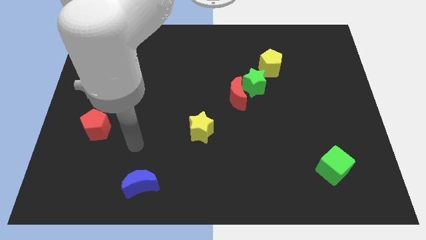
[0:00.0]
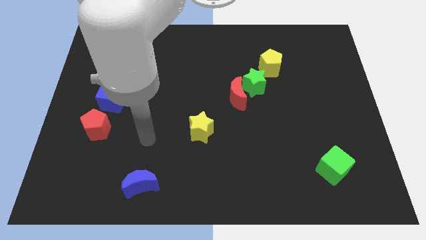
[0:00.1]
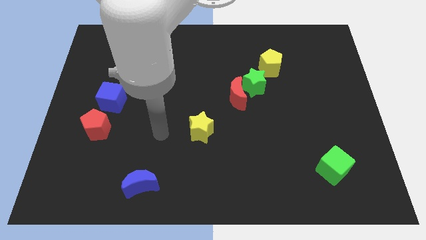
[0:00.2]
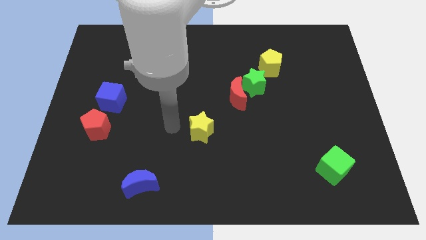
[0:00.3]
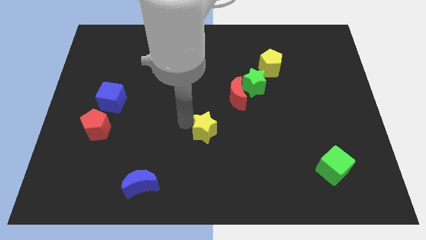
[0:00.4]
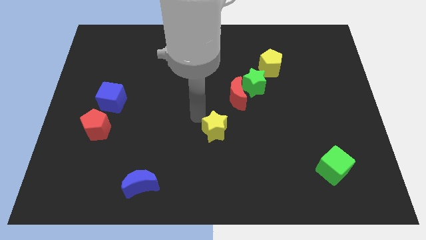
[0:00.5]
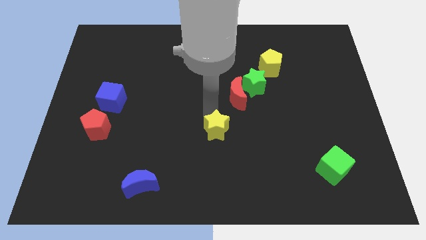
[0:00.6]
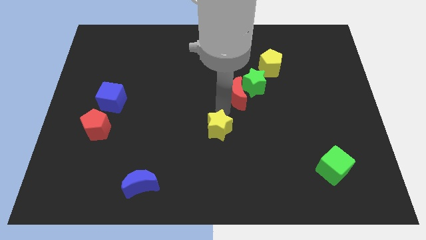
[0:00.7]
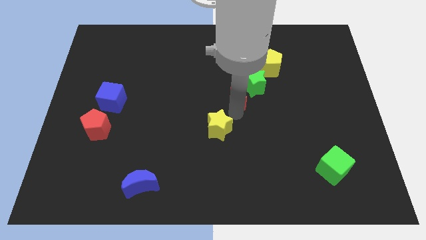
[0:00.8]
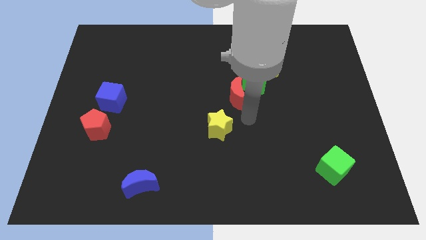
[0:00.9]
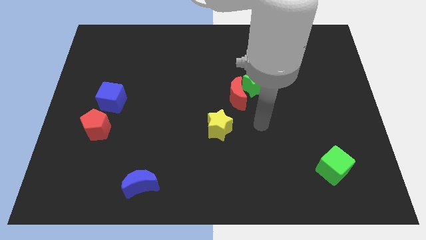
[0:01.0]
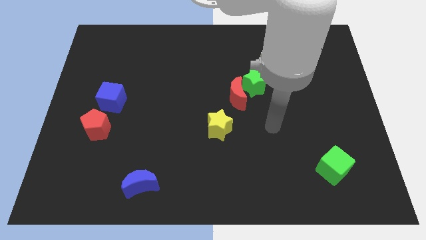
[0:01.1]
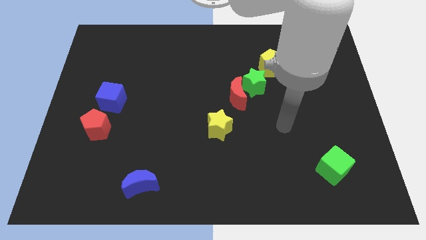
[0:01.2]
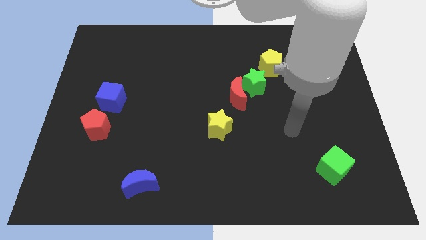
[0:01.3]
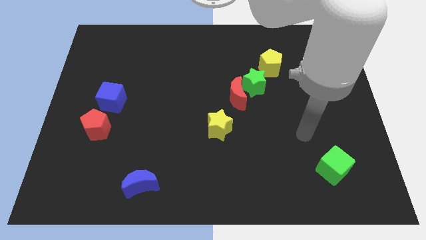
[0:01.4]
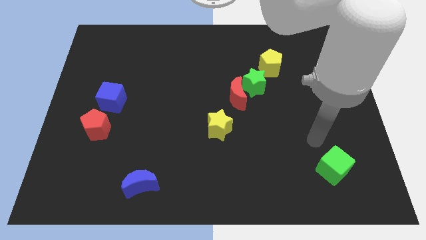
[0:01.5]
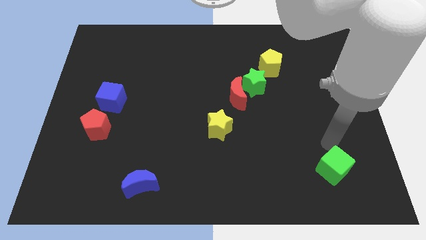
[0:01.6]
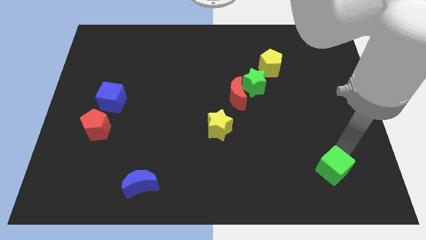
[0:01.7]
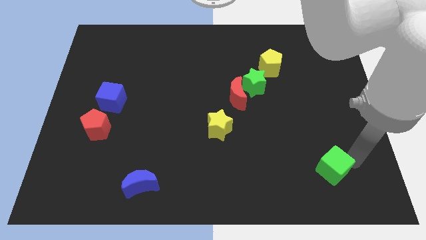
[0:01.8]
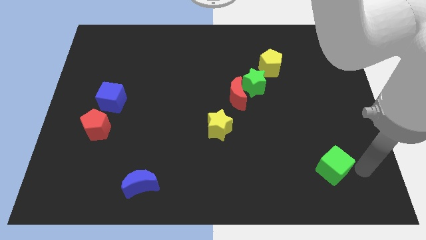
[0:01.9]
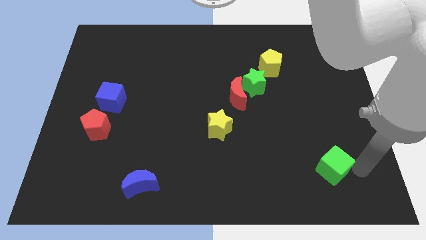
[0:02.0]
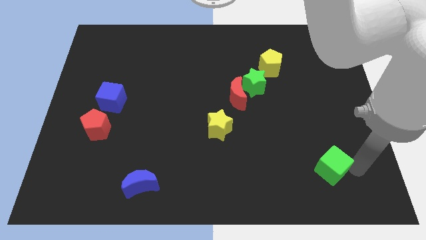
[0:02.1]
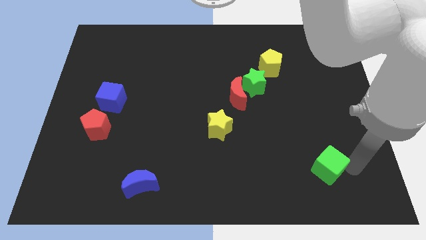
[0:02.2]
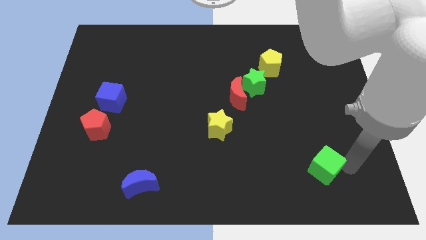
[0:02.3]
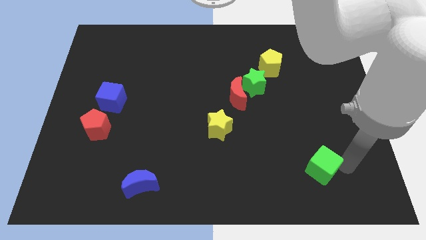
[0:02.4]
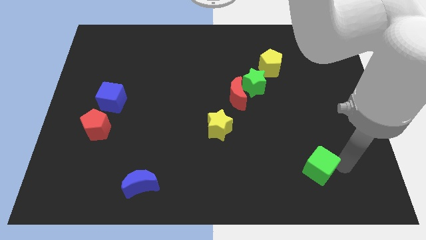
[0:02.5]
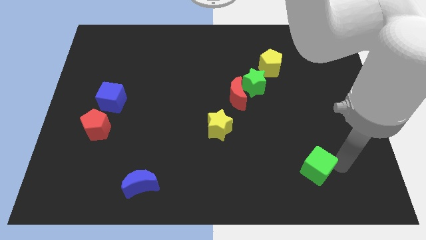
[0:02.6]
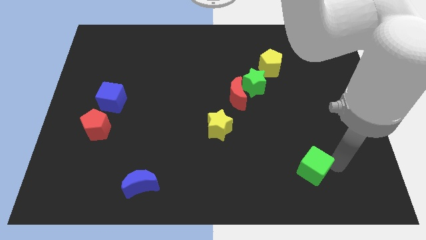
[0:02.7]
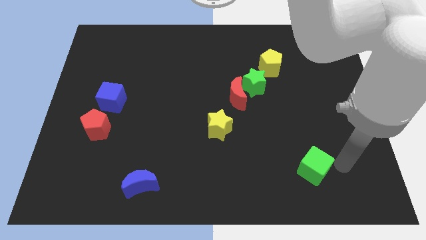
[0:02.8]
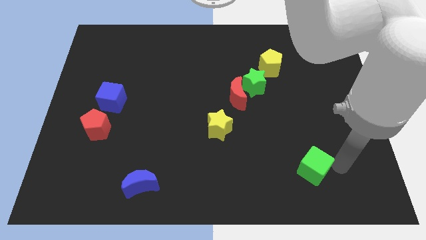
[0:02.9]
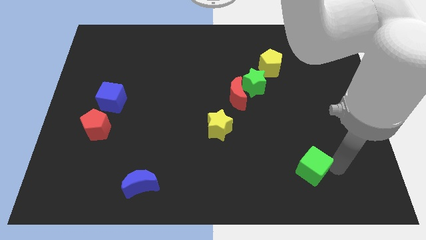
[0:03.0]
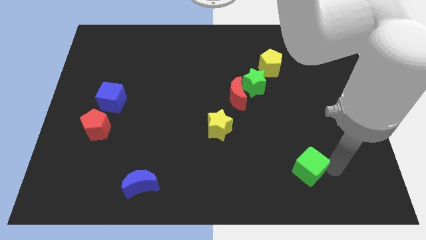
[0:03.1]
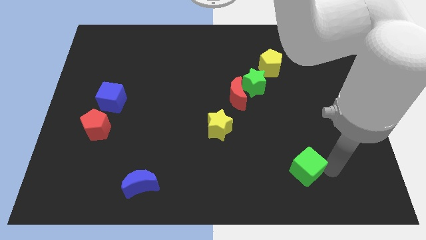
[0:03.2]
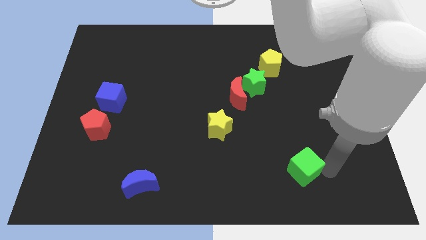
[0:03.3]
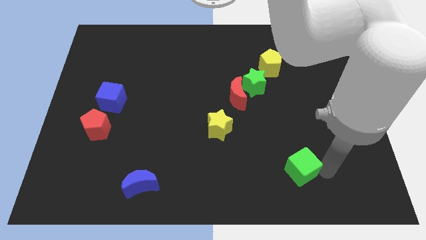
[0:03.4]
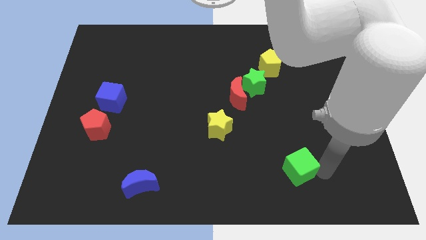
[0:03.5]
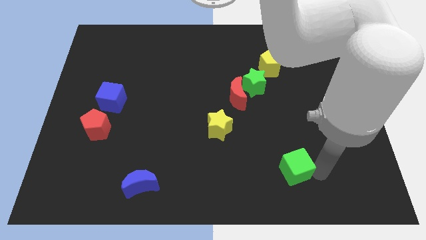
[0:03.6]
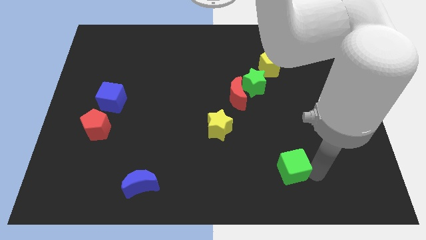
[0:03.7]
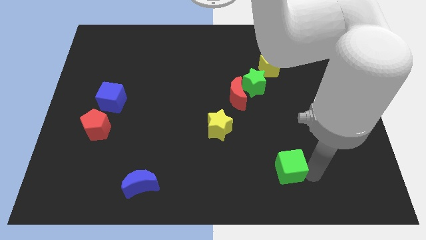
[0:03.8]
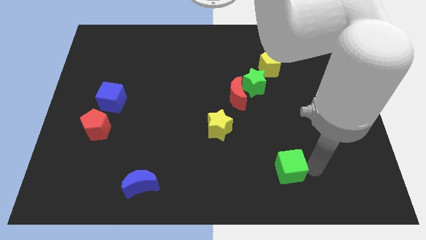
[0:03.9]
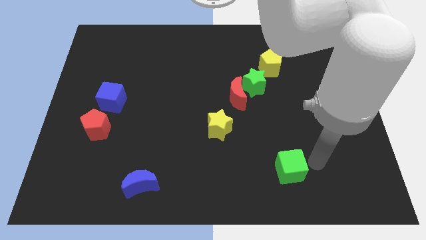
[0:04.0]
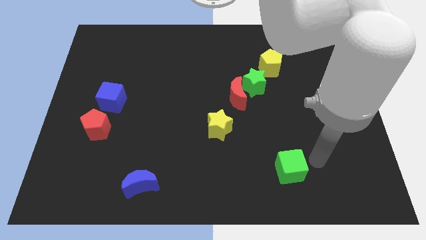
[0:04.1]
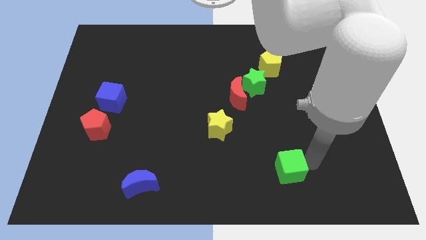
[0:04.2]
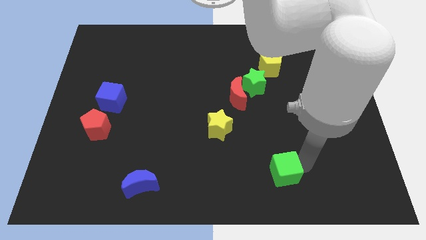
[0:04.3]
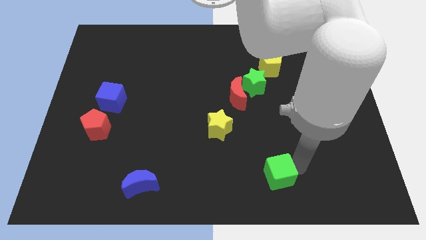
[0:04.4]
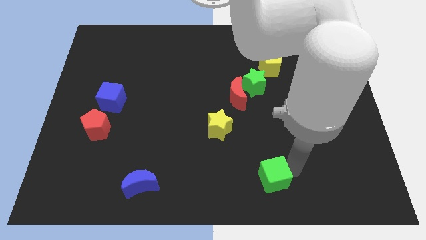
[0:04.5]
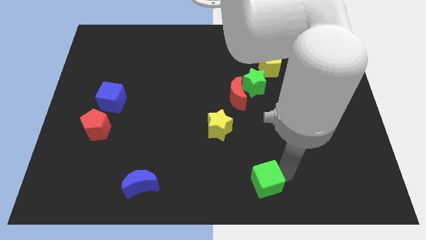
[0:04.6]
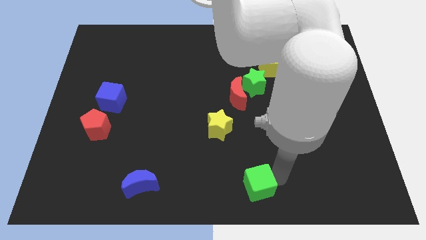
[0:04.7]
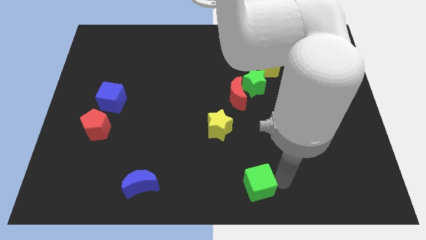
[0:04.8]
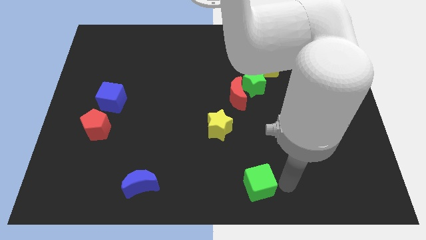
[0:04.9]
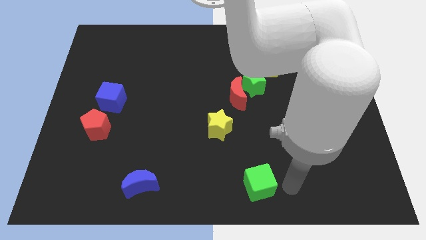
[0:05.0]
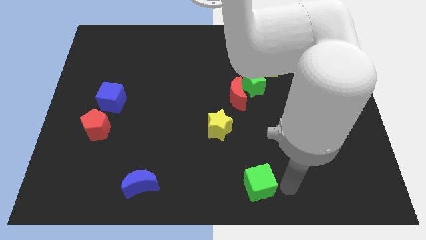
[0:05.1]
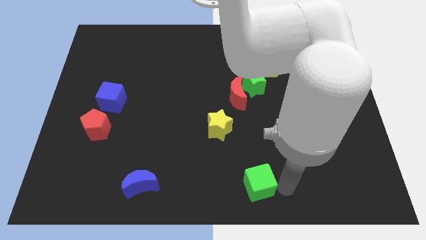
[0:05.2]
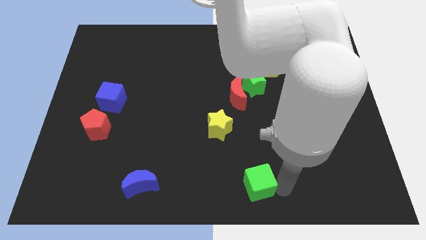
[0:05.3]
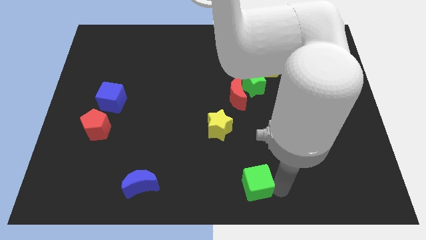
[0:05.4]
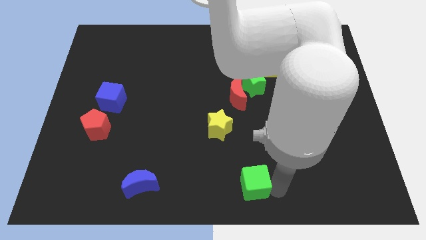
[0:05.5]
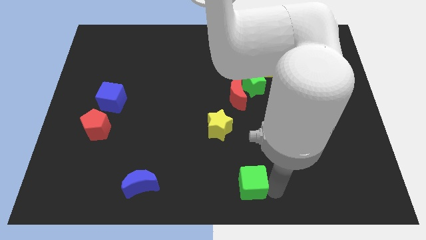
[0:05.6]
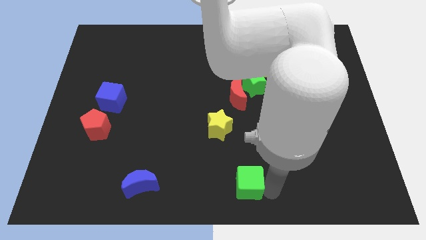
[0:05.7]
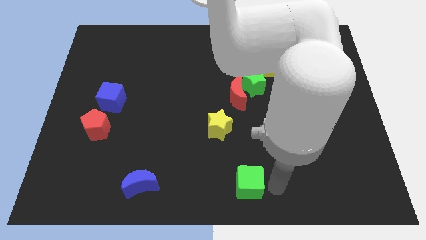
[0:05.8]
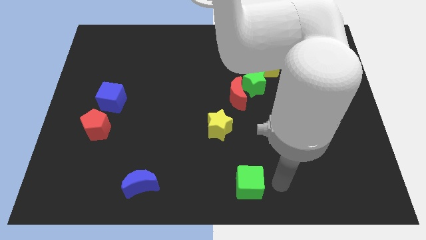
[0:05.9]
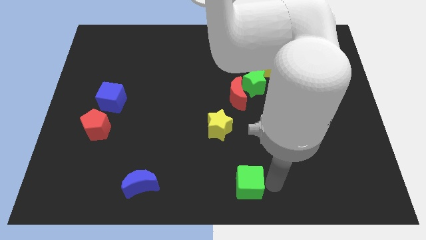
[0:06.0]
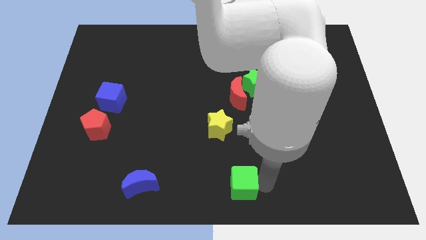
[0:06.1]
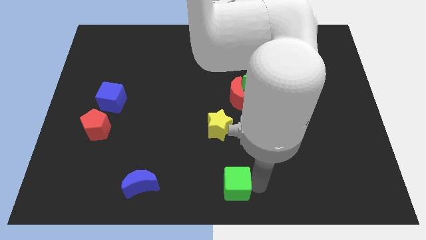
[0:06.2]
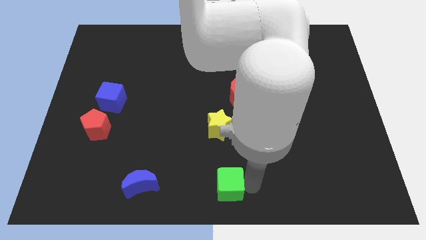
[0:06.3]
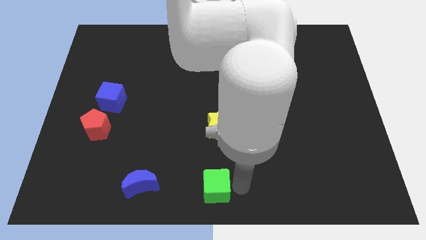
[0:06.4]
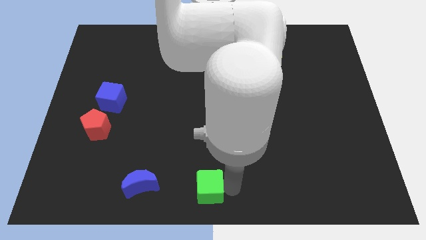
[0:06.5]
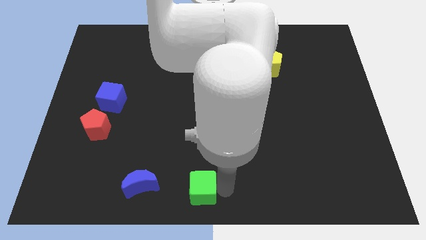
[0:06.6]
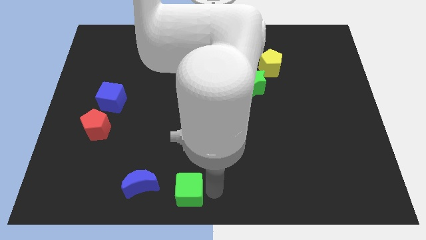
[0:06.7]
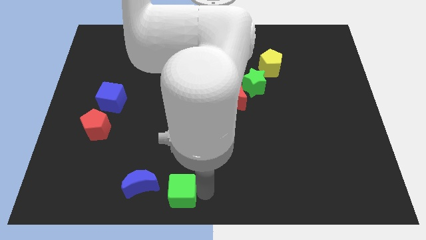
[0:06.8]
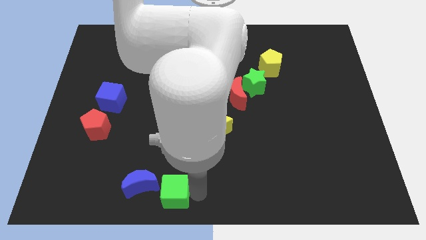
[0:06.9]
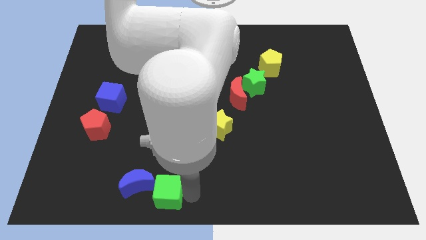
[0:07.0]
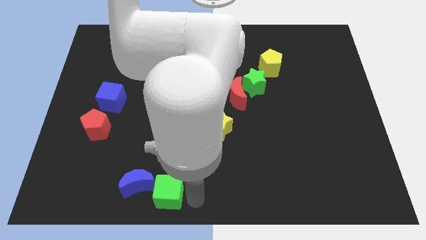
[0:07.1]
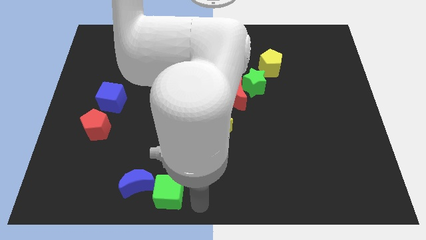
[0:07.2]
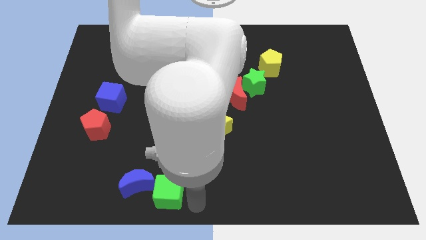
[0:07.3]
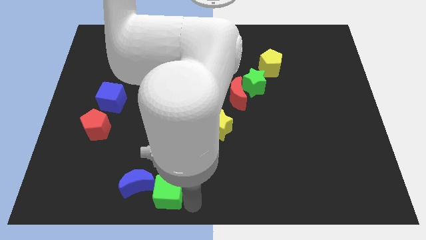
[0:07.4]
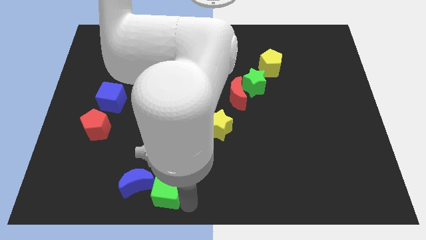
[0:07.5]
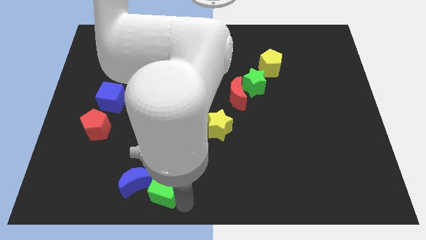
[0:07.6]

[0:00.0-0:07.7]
move the green cube next to the blue moon
